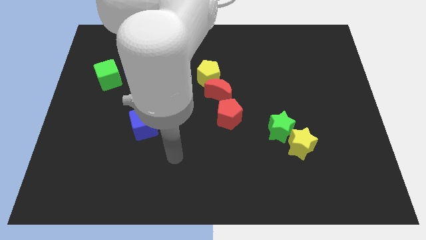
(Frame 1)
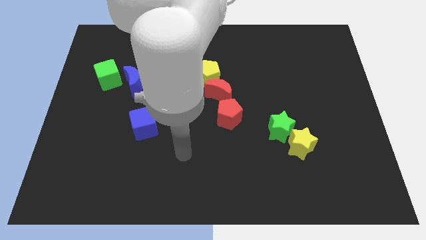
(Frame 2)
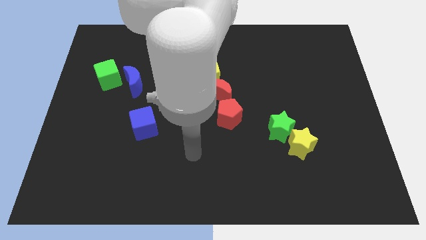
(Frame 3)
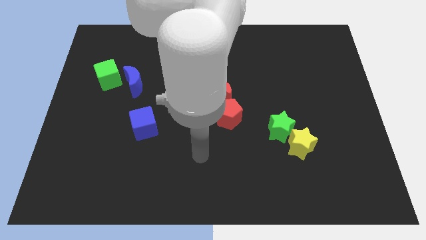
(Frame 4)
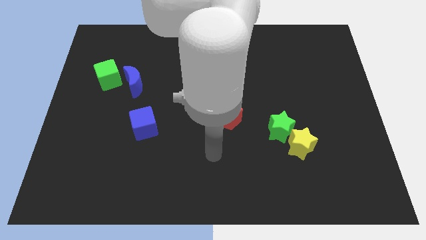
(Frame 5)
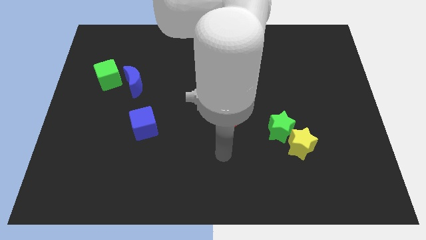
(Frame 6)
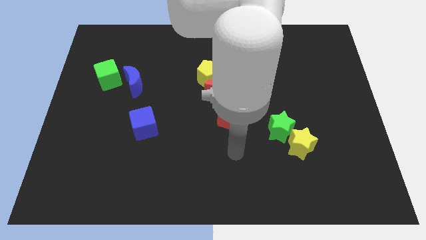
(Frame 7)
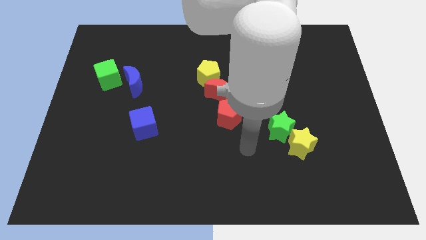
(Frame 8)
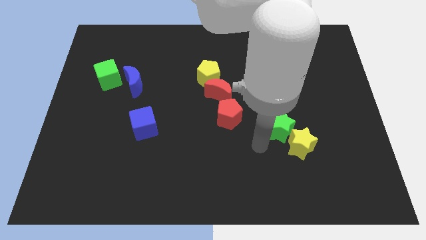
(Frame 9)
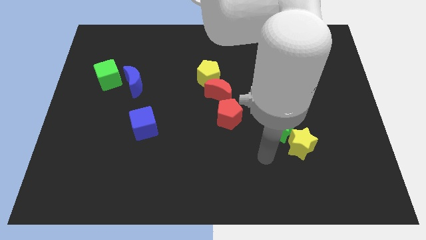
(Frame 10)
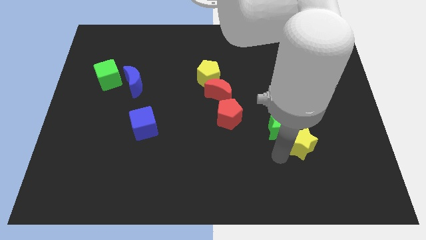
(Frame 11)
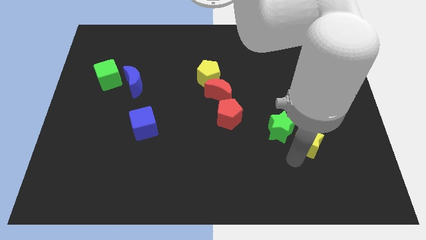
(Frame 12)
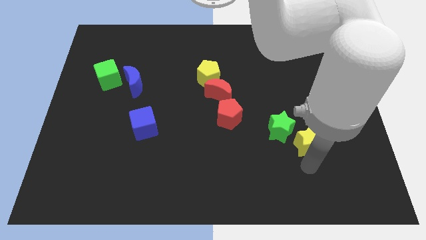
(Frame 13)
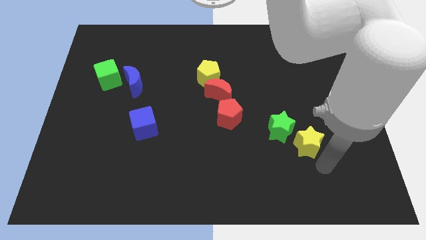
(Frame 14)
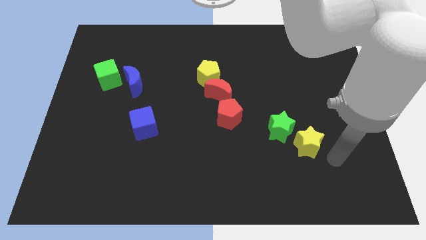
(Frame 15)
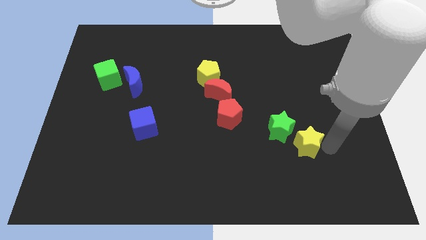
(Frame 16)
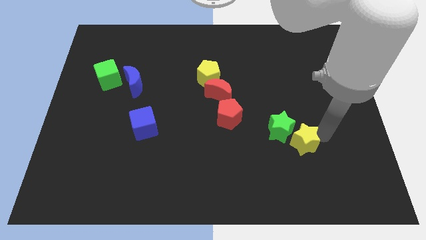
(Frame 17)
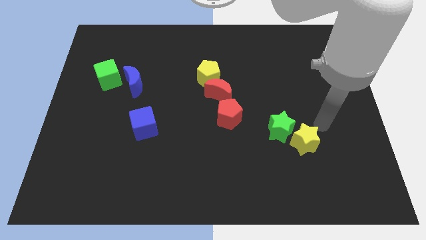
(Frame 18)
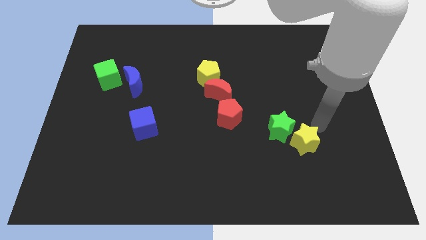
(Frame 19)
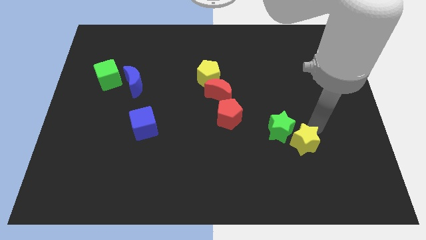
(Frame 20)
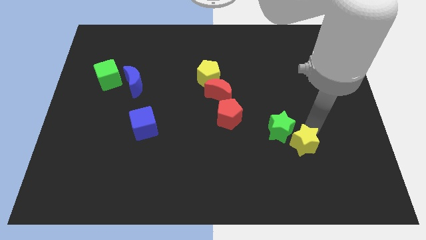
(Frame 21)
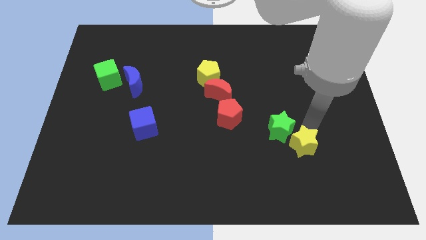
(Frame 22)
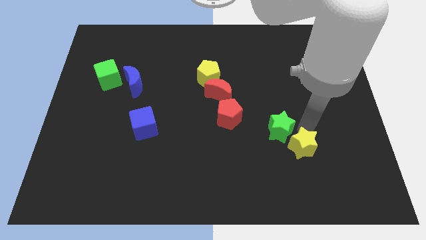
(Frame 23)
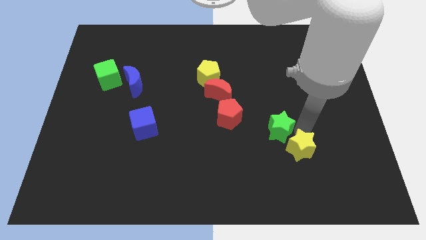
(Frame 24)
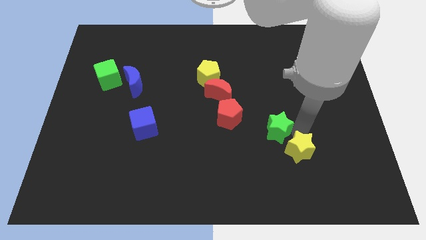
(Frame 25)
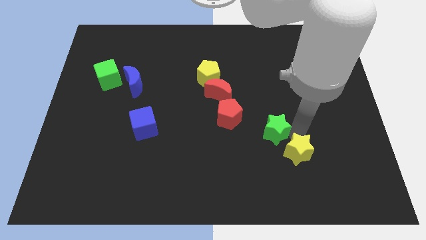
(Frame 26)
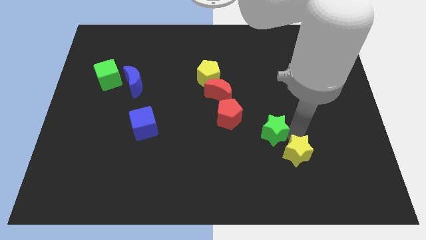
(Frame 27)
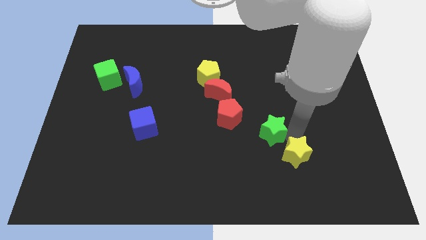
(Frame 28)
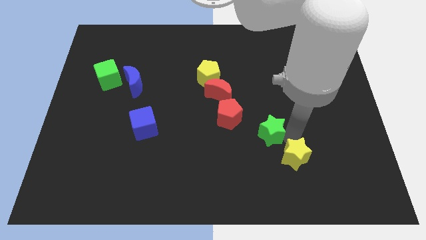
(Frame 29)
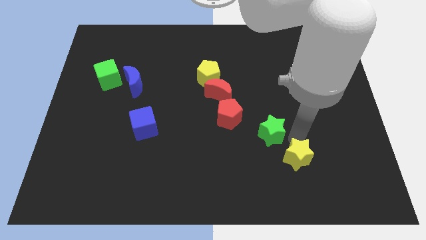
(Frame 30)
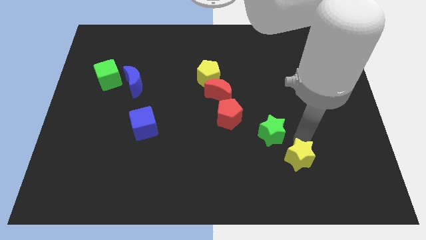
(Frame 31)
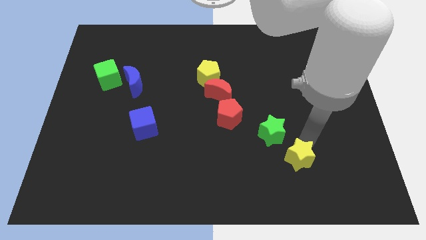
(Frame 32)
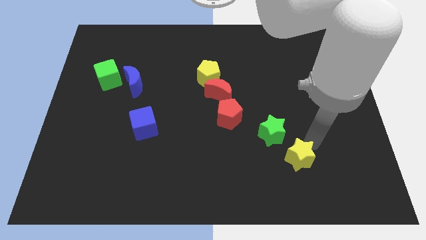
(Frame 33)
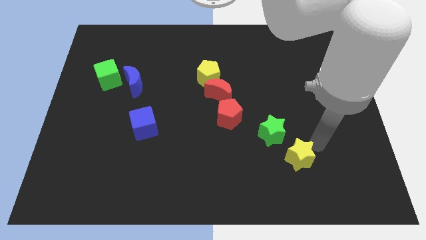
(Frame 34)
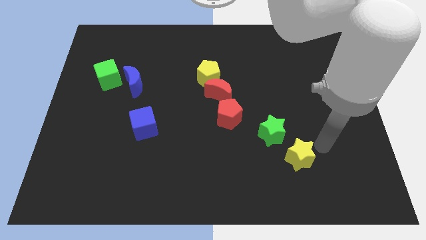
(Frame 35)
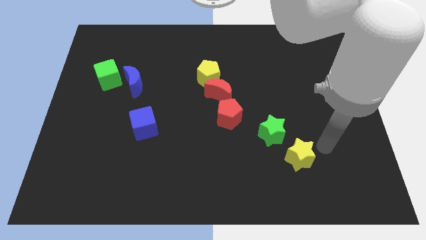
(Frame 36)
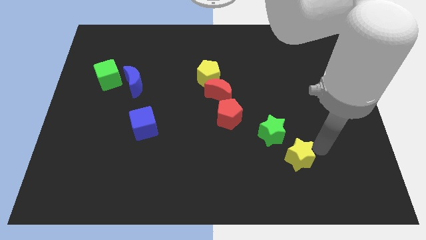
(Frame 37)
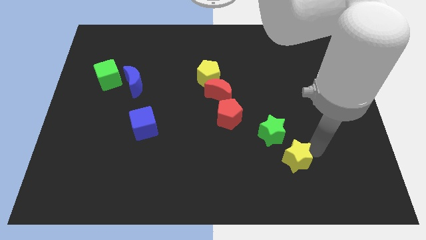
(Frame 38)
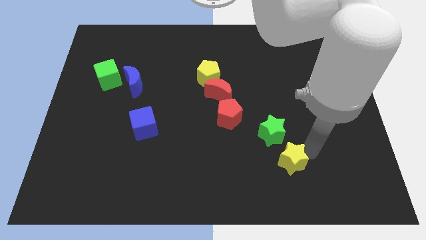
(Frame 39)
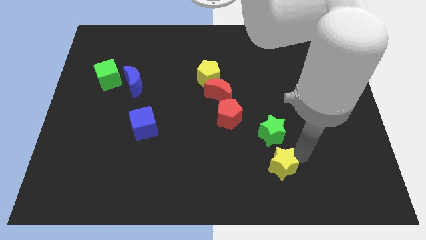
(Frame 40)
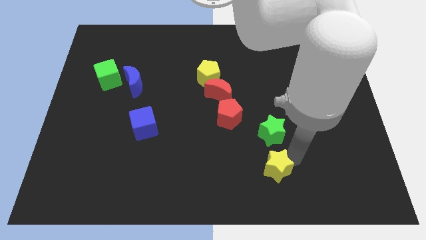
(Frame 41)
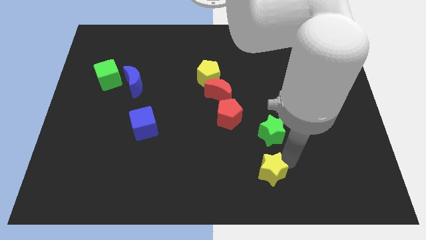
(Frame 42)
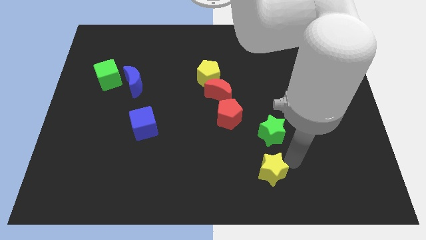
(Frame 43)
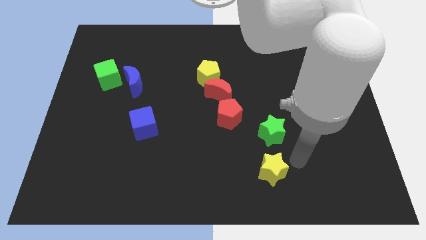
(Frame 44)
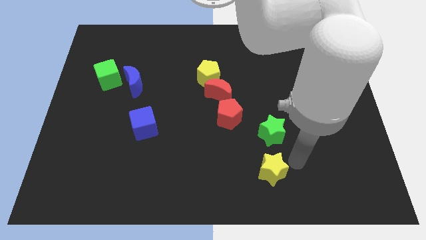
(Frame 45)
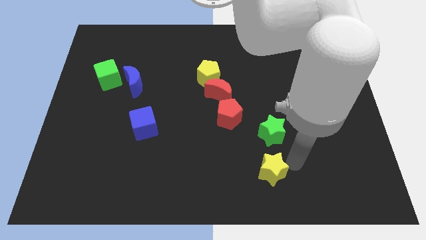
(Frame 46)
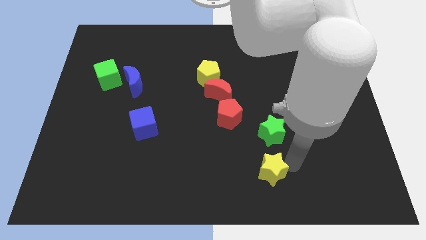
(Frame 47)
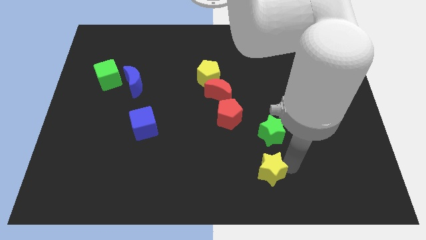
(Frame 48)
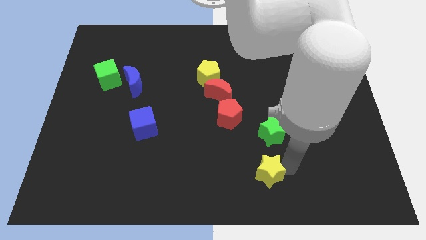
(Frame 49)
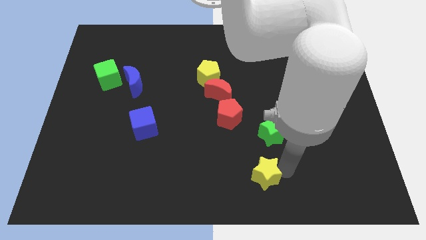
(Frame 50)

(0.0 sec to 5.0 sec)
put the yellow star to the bottom side

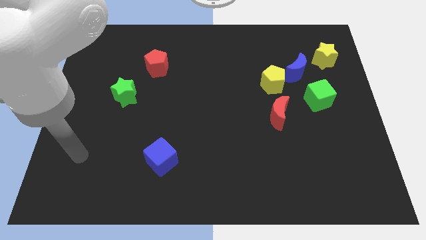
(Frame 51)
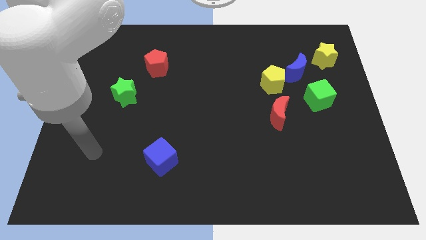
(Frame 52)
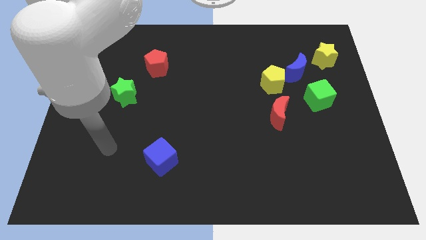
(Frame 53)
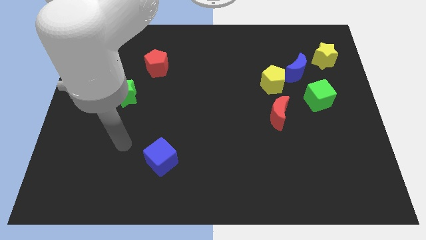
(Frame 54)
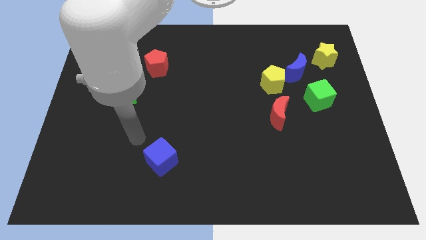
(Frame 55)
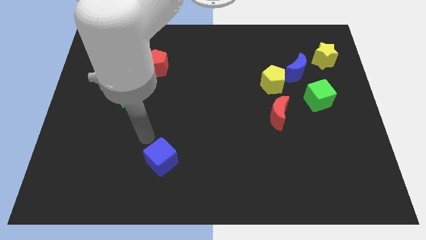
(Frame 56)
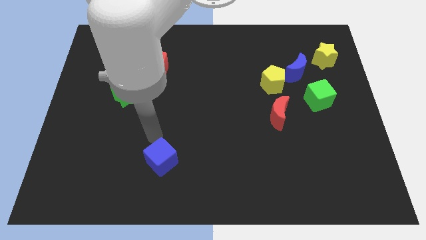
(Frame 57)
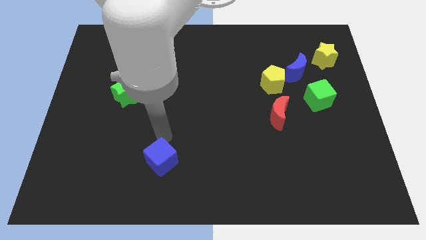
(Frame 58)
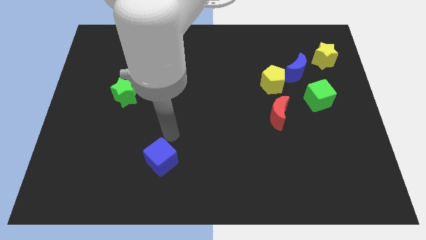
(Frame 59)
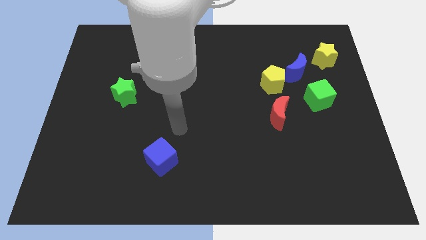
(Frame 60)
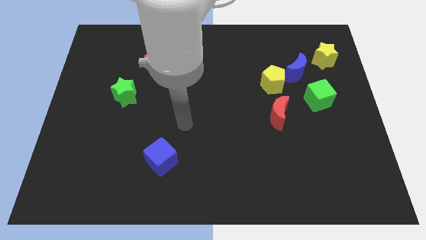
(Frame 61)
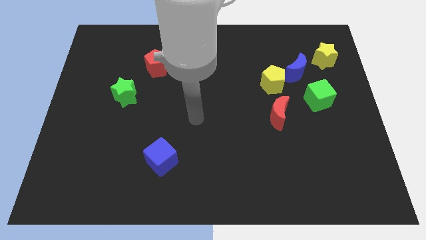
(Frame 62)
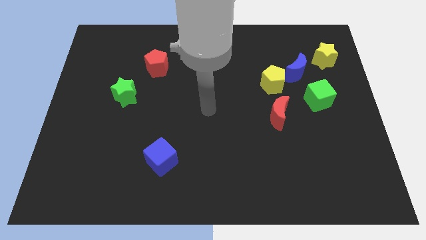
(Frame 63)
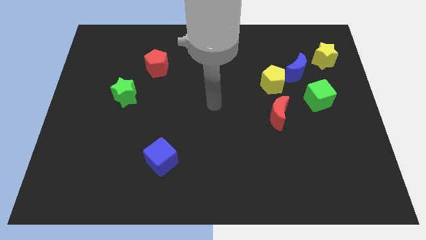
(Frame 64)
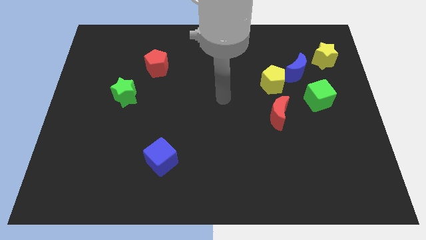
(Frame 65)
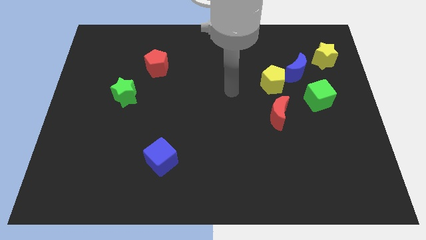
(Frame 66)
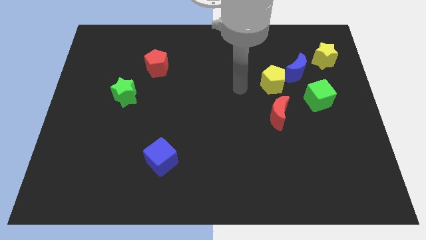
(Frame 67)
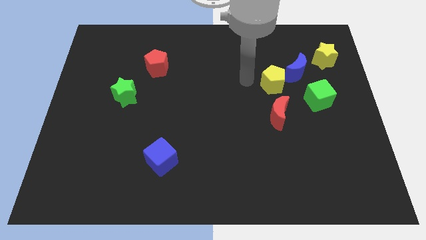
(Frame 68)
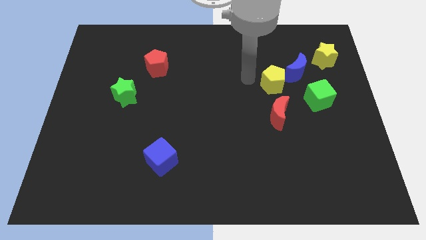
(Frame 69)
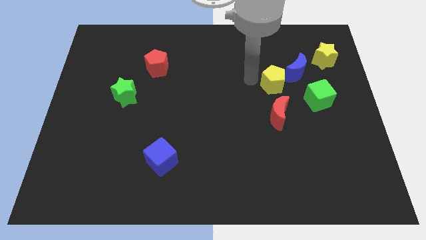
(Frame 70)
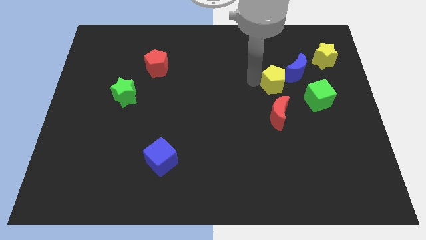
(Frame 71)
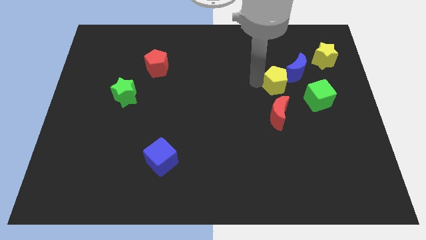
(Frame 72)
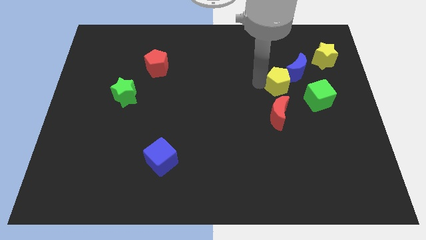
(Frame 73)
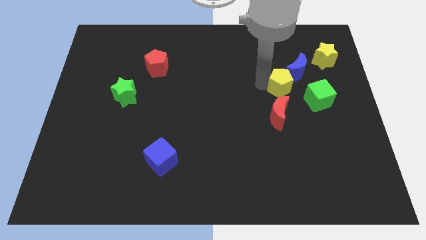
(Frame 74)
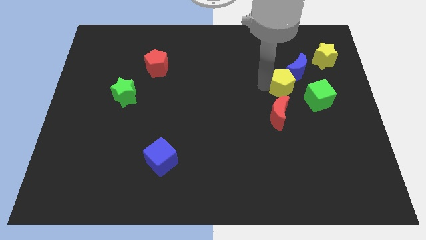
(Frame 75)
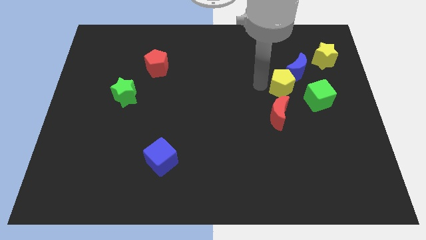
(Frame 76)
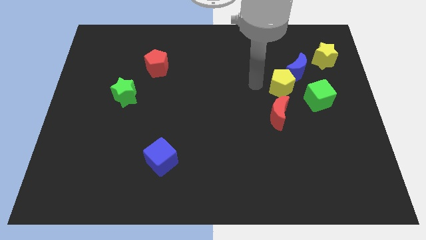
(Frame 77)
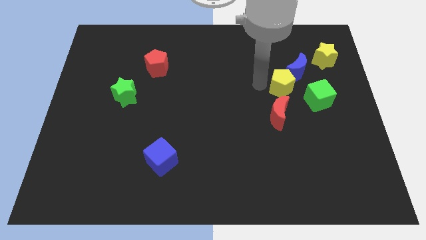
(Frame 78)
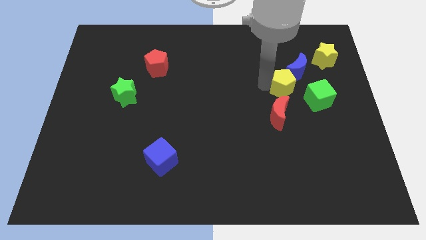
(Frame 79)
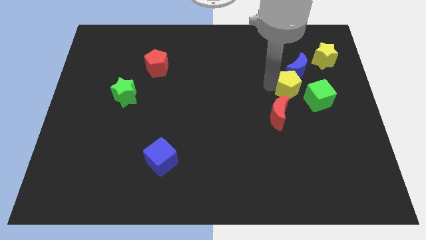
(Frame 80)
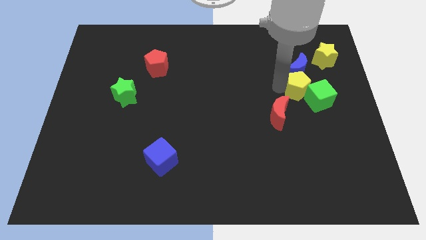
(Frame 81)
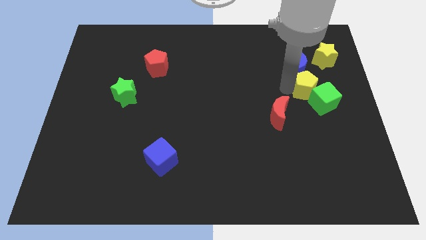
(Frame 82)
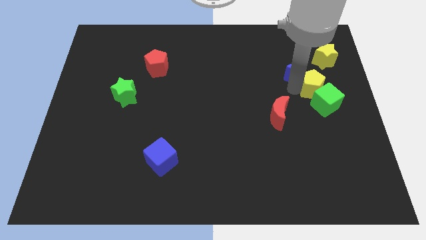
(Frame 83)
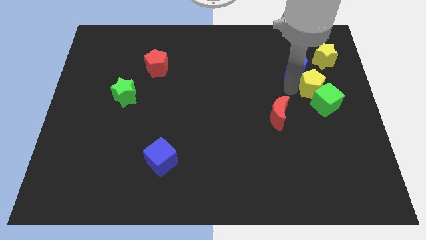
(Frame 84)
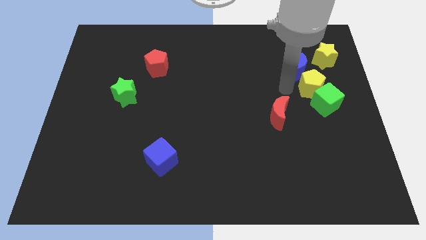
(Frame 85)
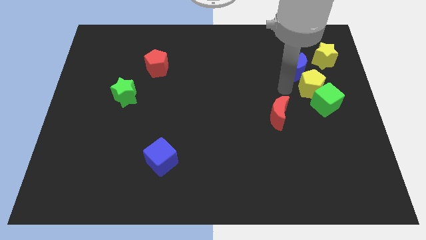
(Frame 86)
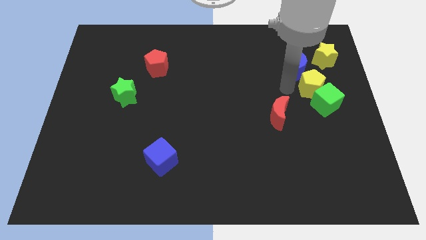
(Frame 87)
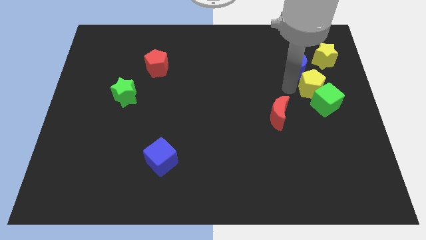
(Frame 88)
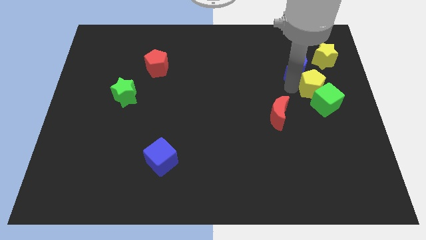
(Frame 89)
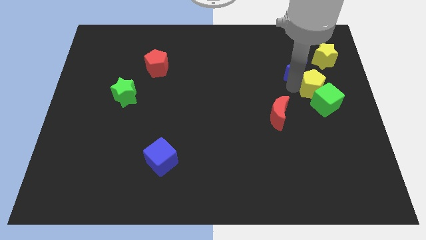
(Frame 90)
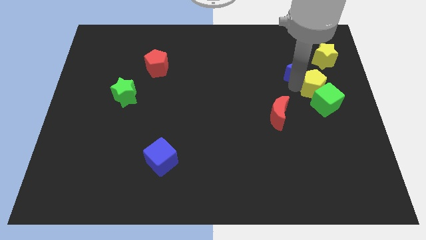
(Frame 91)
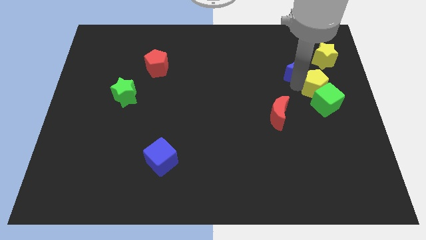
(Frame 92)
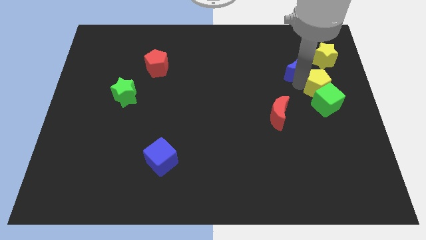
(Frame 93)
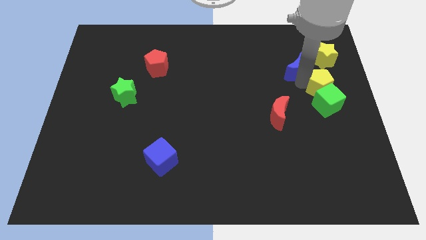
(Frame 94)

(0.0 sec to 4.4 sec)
put the yellow pentagon to the center right
